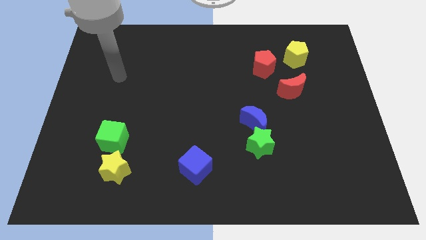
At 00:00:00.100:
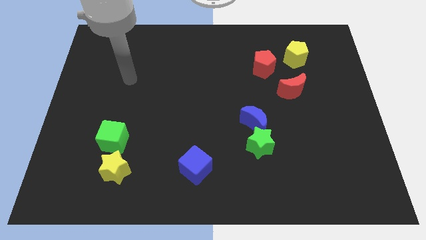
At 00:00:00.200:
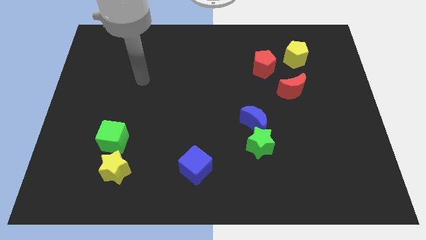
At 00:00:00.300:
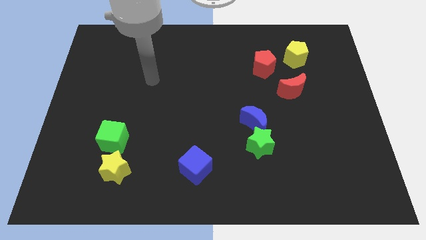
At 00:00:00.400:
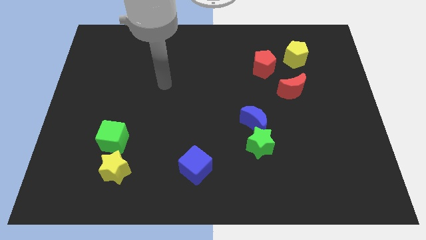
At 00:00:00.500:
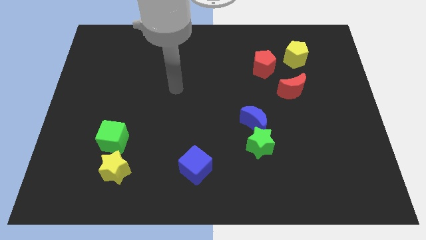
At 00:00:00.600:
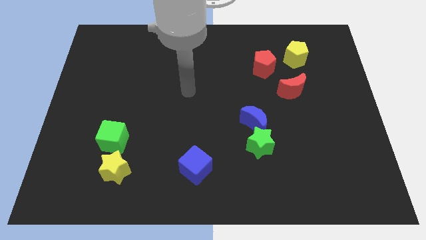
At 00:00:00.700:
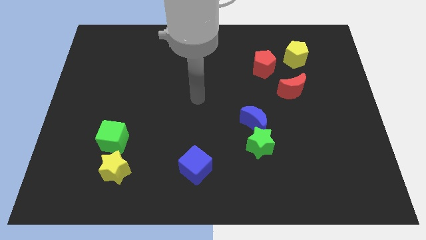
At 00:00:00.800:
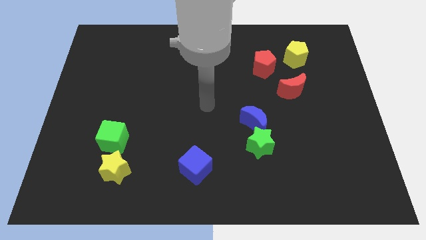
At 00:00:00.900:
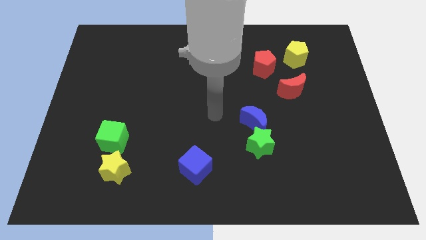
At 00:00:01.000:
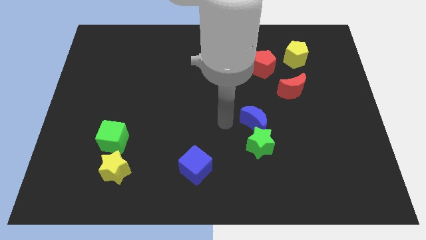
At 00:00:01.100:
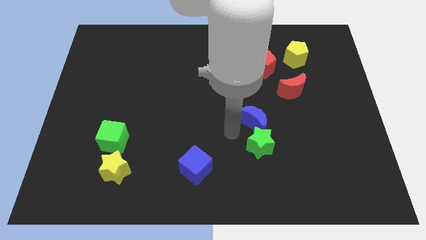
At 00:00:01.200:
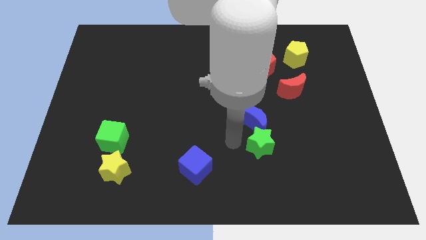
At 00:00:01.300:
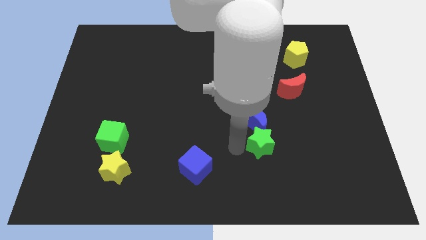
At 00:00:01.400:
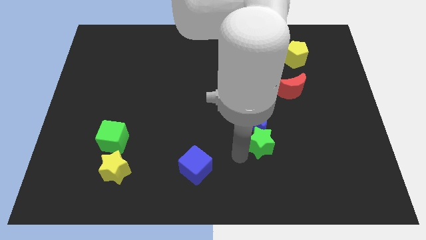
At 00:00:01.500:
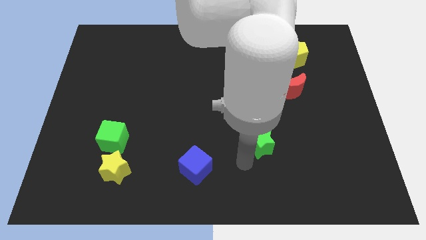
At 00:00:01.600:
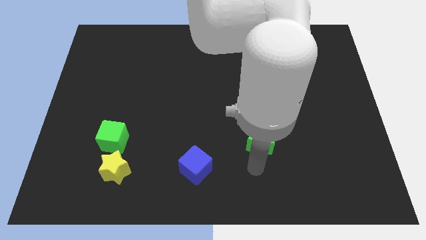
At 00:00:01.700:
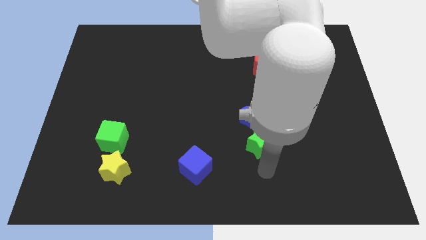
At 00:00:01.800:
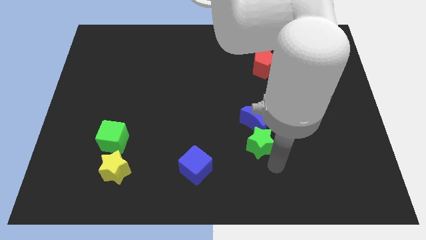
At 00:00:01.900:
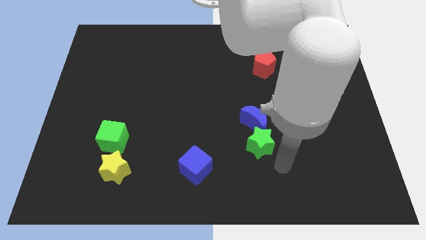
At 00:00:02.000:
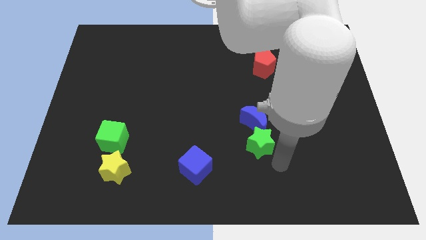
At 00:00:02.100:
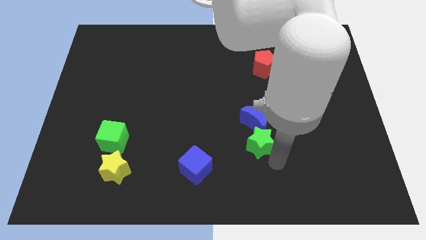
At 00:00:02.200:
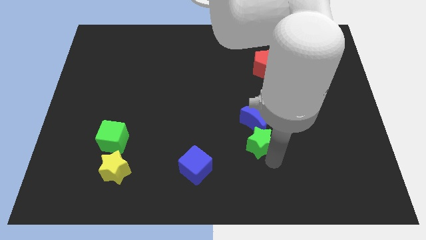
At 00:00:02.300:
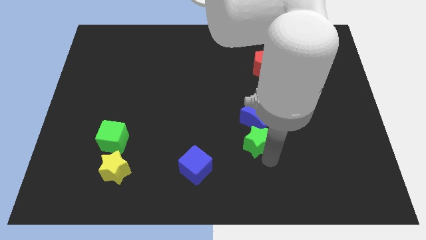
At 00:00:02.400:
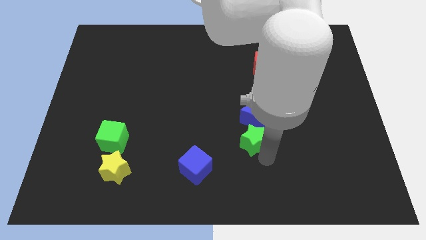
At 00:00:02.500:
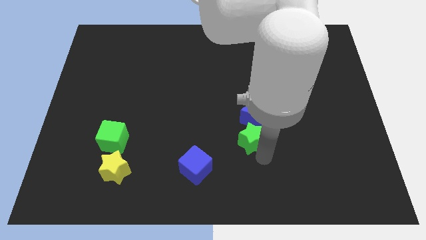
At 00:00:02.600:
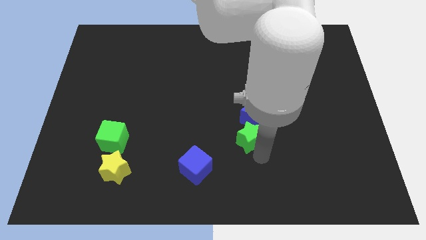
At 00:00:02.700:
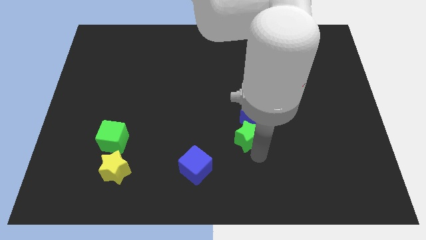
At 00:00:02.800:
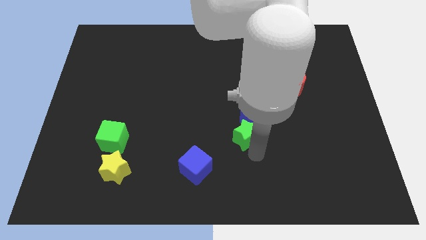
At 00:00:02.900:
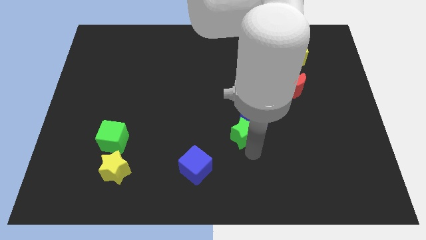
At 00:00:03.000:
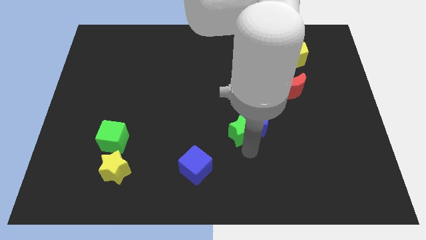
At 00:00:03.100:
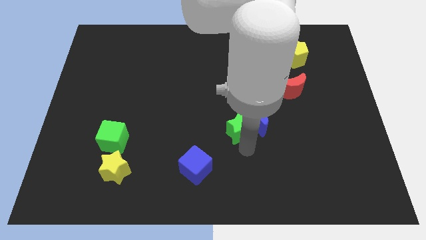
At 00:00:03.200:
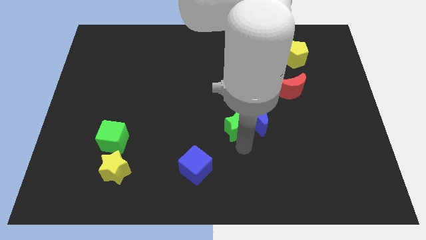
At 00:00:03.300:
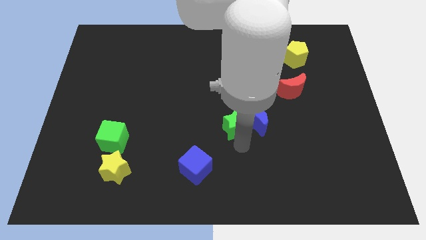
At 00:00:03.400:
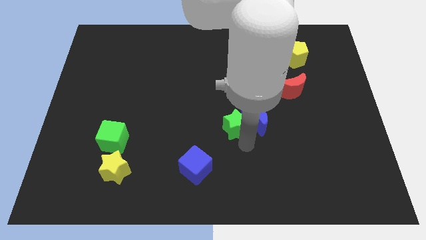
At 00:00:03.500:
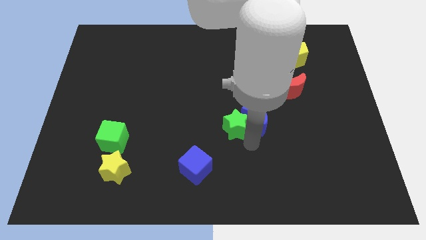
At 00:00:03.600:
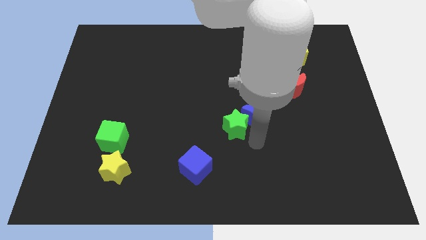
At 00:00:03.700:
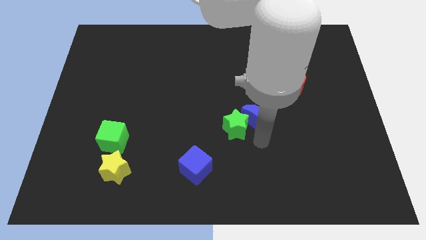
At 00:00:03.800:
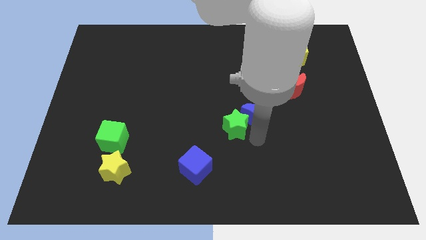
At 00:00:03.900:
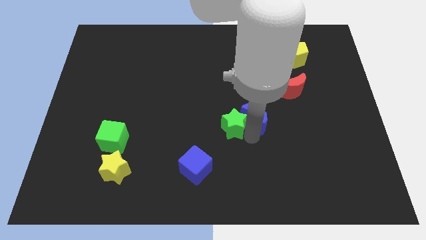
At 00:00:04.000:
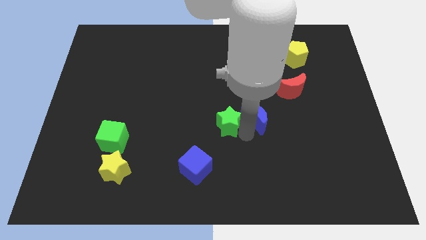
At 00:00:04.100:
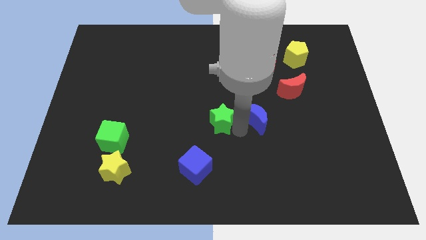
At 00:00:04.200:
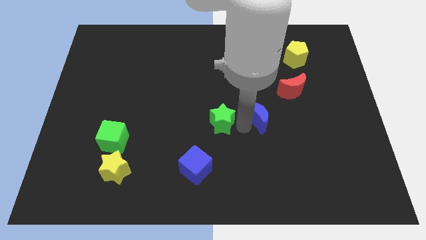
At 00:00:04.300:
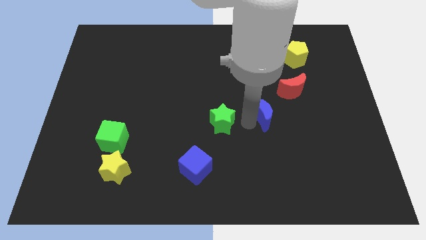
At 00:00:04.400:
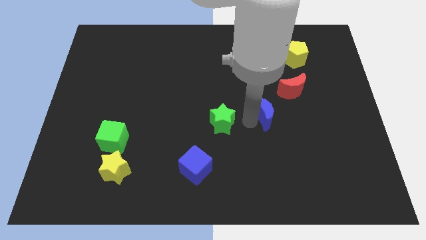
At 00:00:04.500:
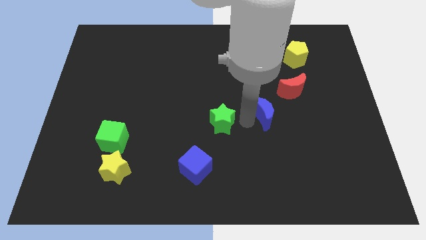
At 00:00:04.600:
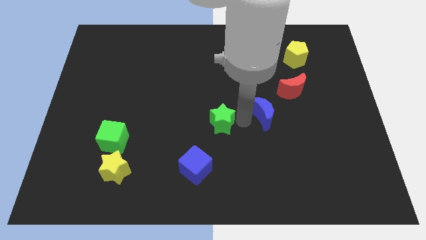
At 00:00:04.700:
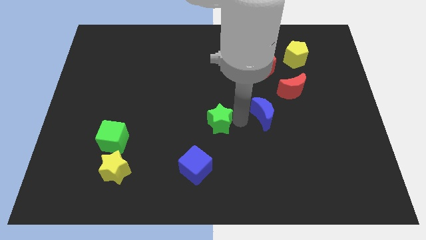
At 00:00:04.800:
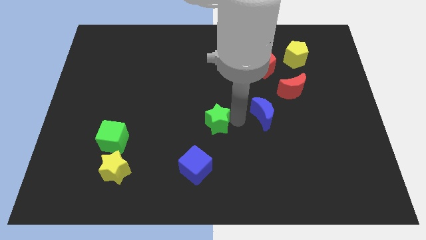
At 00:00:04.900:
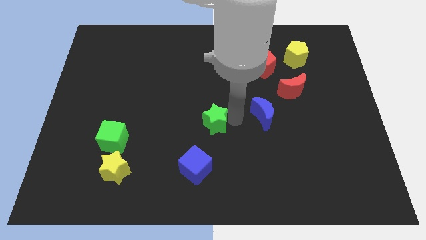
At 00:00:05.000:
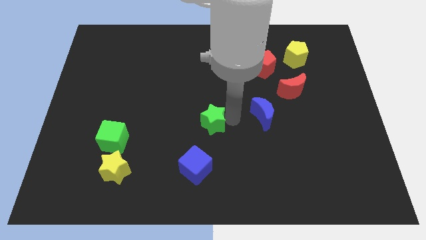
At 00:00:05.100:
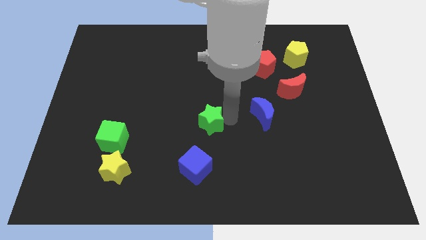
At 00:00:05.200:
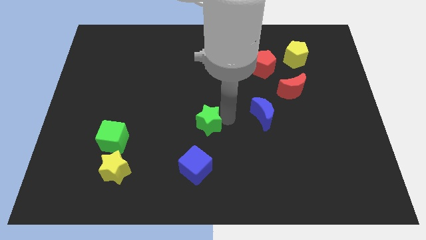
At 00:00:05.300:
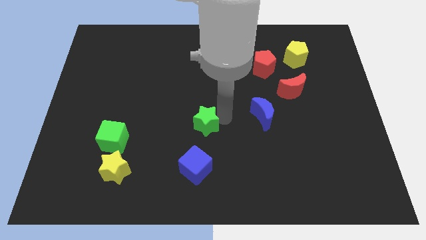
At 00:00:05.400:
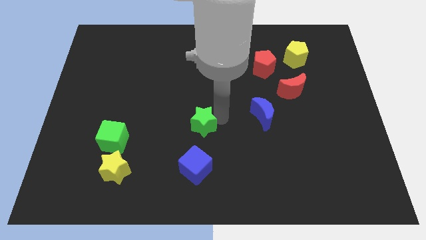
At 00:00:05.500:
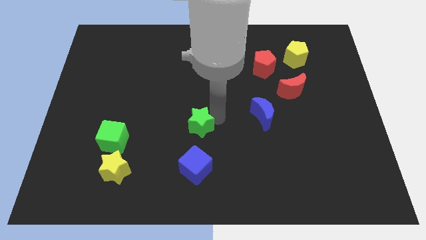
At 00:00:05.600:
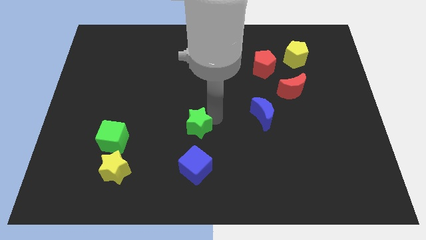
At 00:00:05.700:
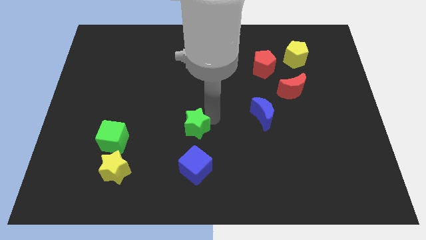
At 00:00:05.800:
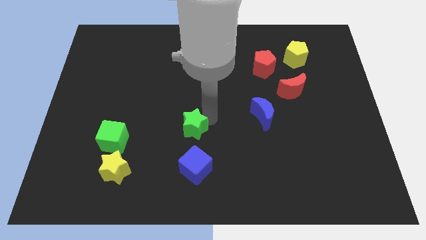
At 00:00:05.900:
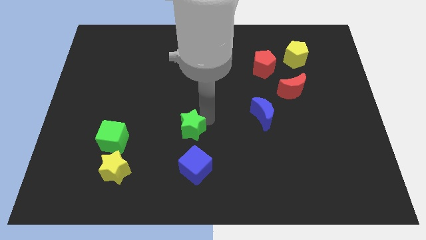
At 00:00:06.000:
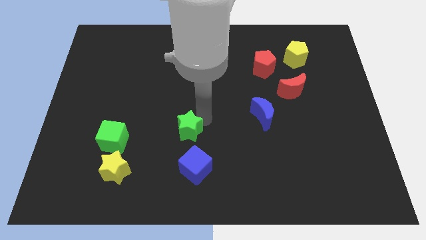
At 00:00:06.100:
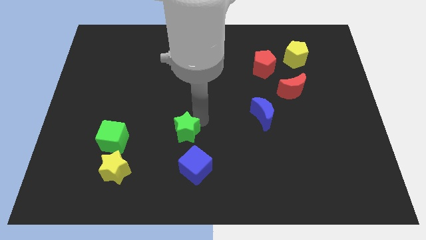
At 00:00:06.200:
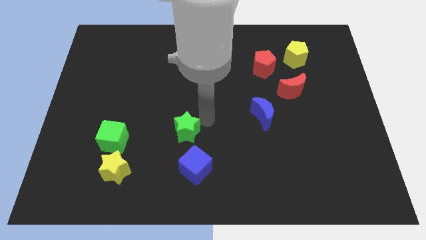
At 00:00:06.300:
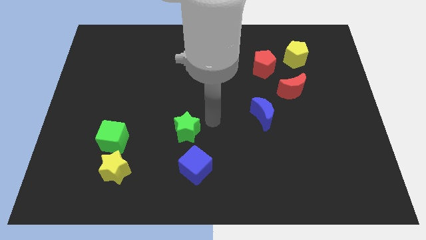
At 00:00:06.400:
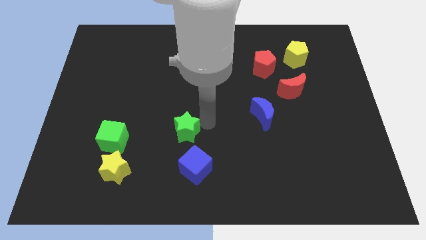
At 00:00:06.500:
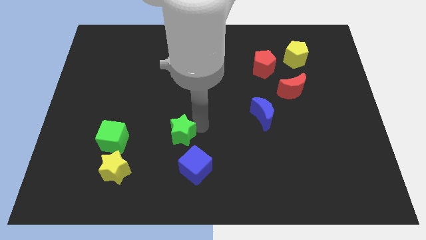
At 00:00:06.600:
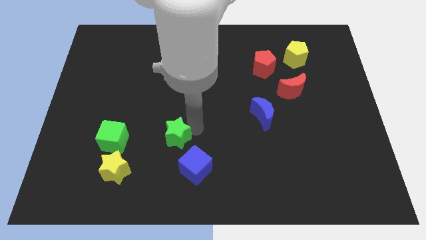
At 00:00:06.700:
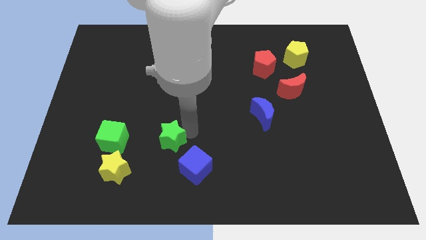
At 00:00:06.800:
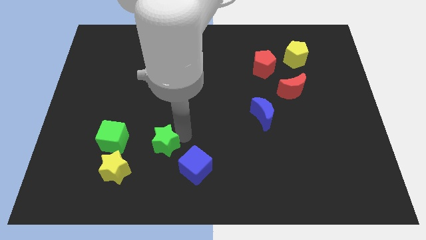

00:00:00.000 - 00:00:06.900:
slide the green star diagonally up and to the right of the yellow star
